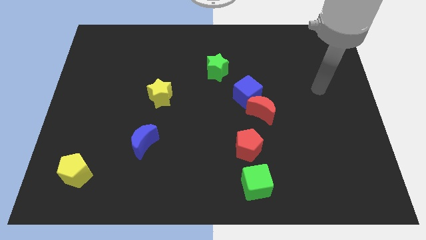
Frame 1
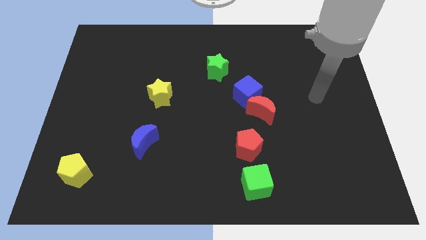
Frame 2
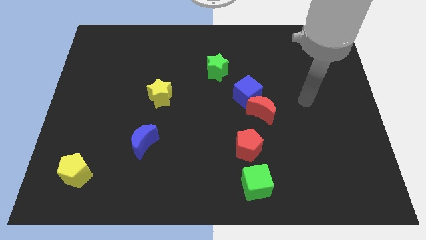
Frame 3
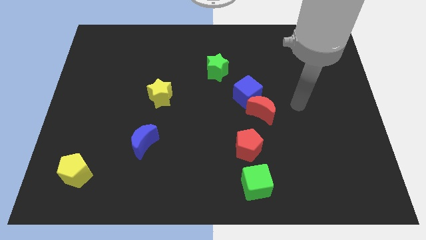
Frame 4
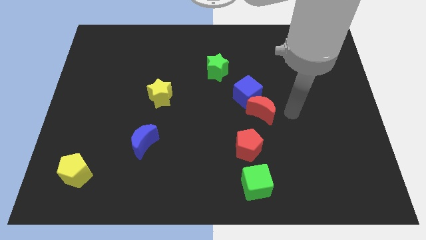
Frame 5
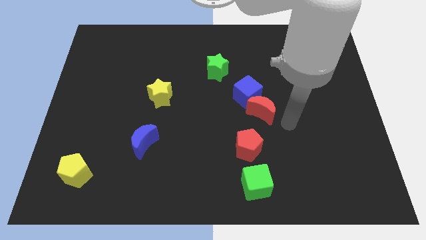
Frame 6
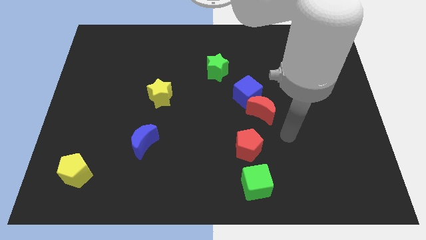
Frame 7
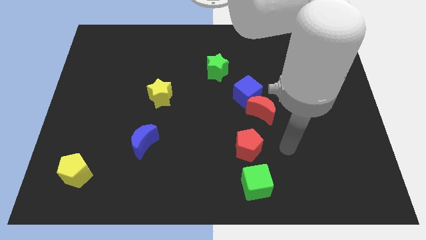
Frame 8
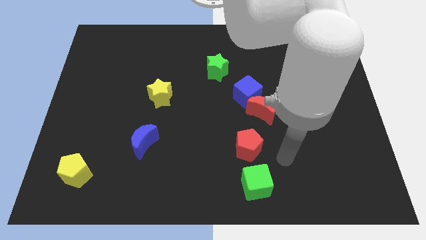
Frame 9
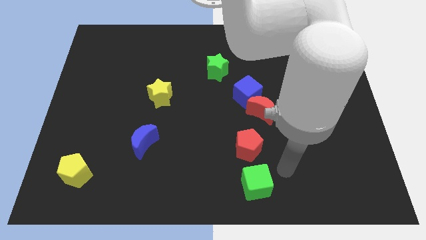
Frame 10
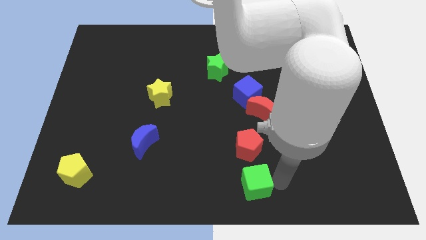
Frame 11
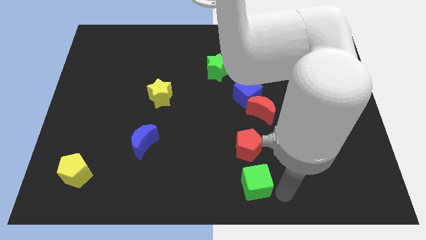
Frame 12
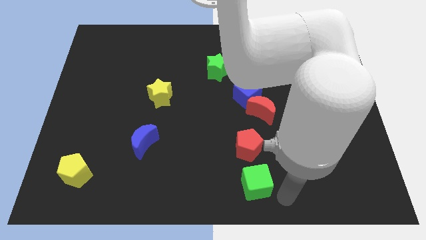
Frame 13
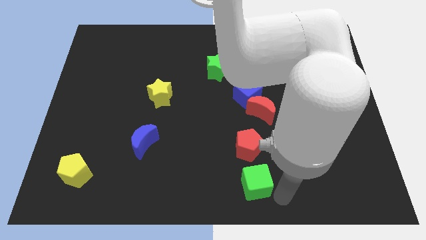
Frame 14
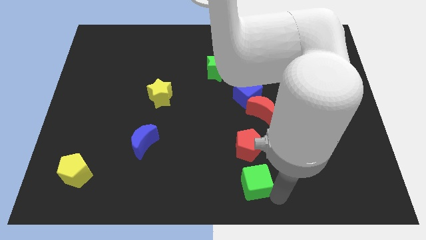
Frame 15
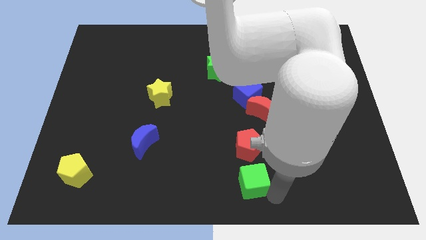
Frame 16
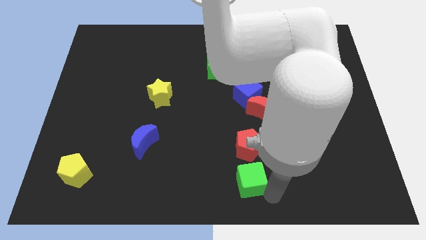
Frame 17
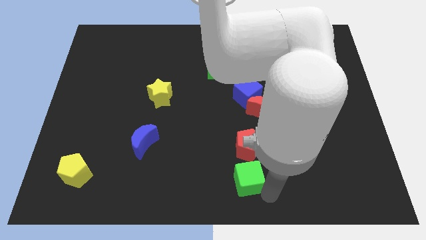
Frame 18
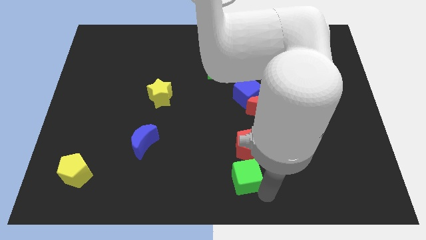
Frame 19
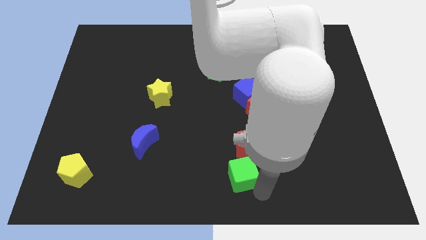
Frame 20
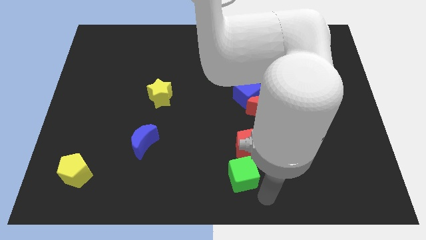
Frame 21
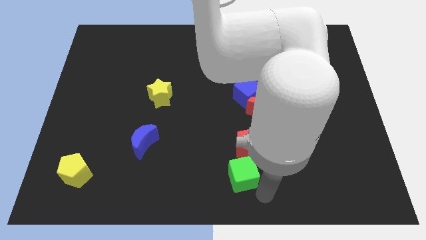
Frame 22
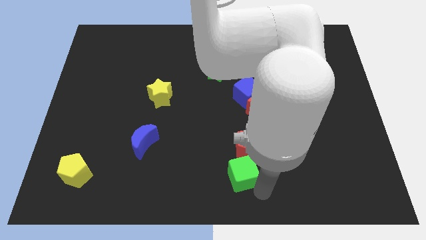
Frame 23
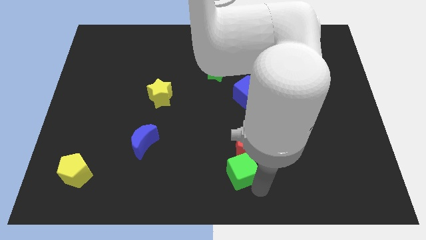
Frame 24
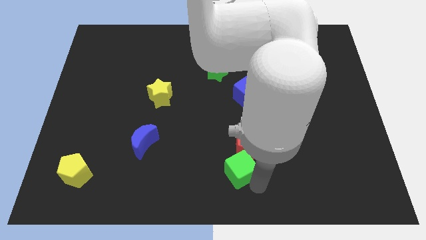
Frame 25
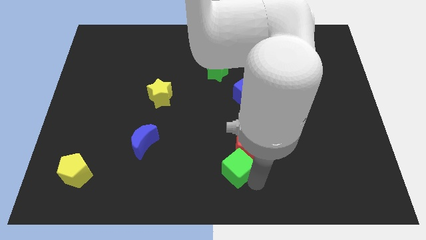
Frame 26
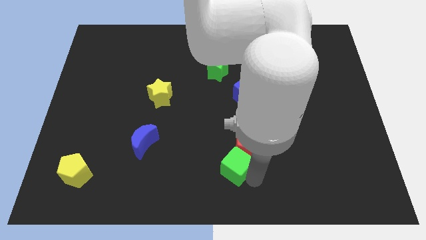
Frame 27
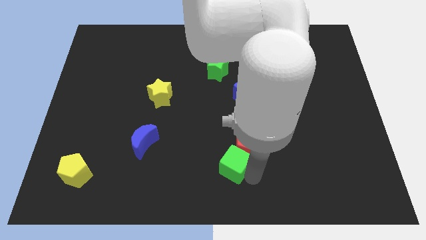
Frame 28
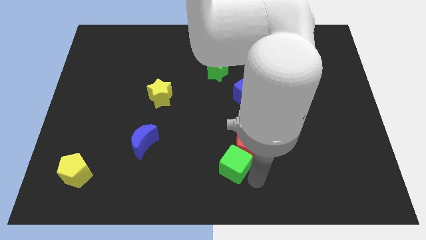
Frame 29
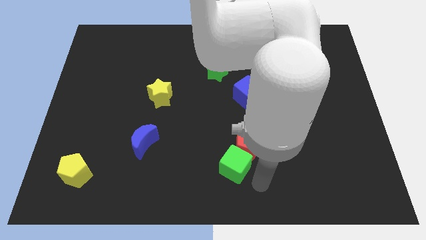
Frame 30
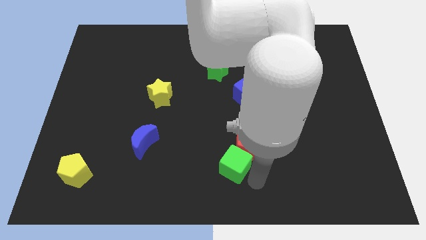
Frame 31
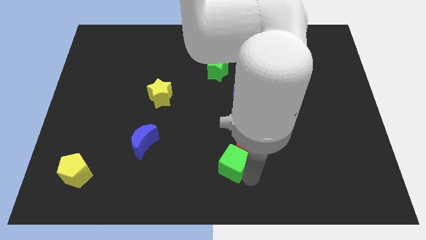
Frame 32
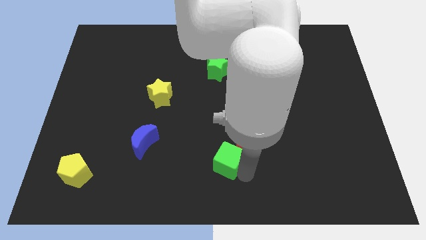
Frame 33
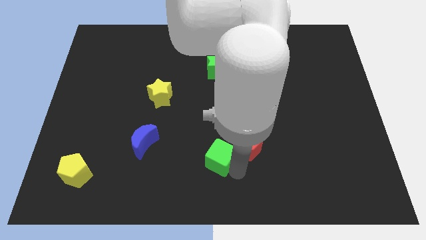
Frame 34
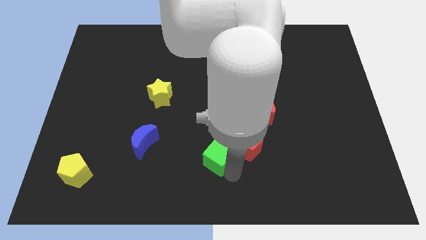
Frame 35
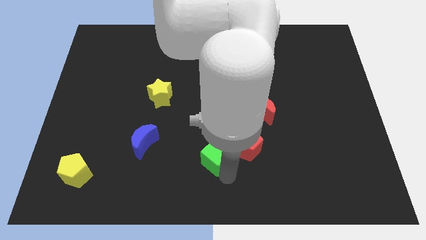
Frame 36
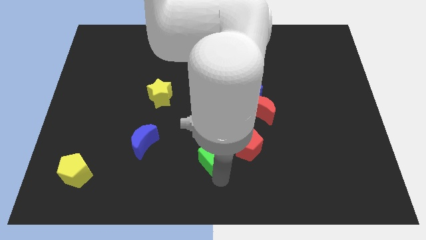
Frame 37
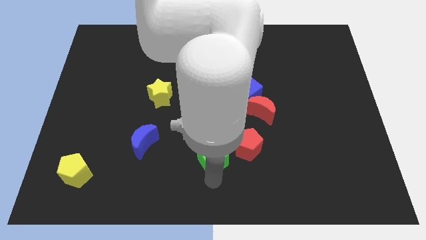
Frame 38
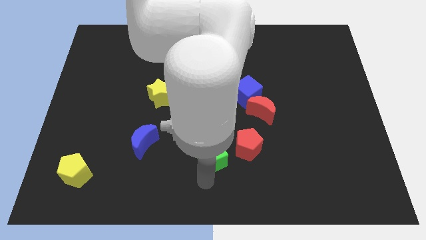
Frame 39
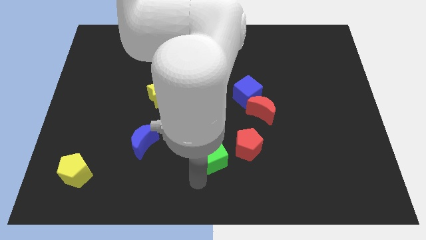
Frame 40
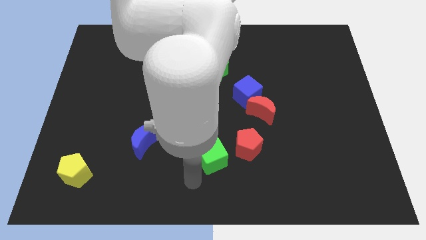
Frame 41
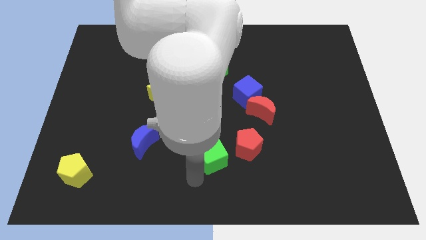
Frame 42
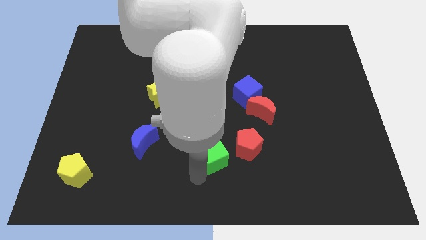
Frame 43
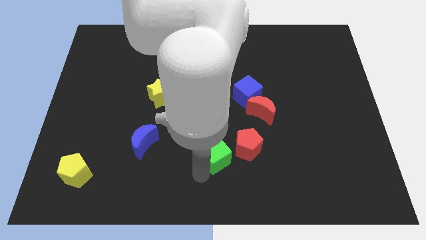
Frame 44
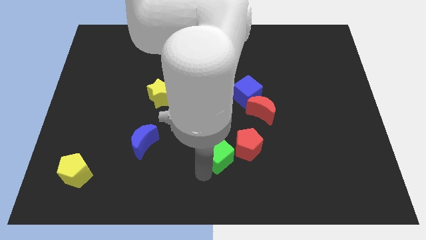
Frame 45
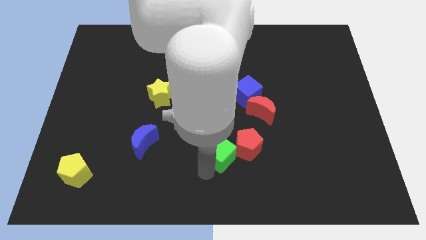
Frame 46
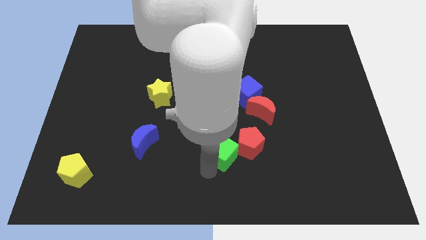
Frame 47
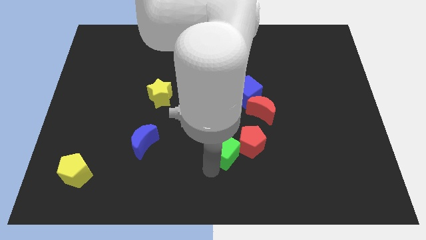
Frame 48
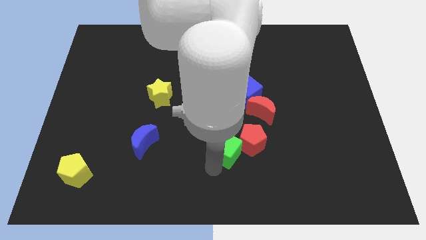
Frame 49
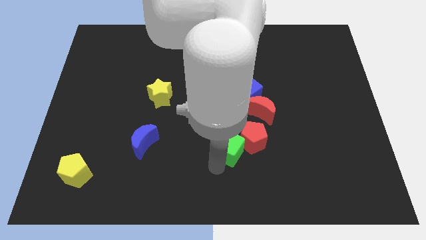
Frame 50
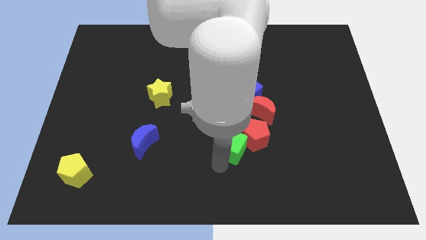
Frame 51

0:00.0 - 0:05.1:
put the green cube to the bottom left of the red moon

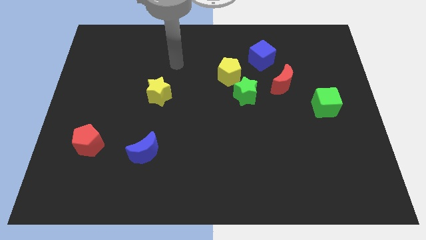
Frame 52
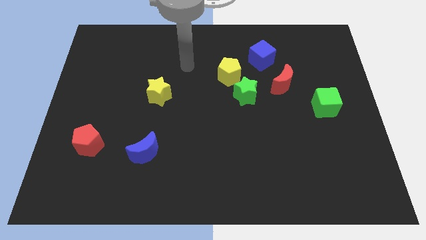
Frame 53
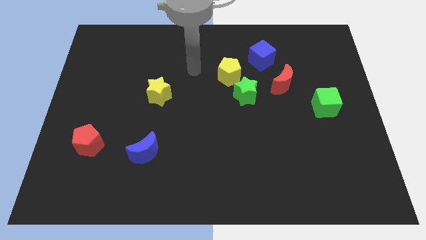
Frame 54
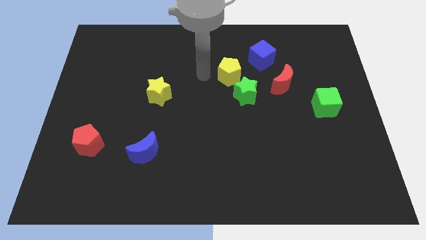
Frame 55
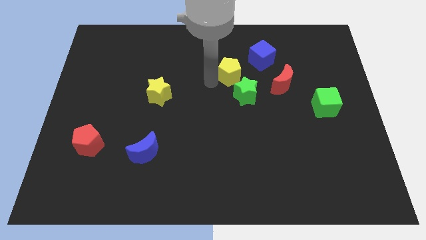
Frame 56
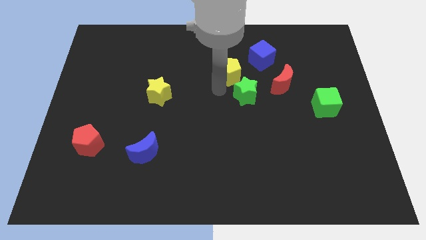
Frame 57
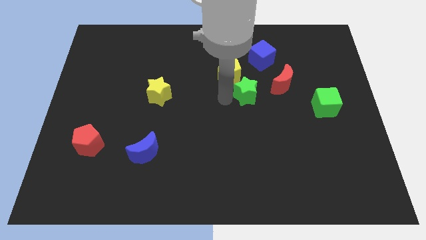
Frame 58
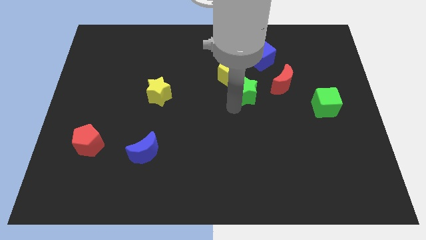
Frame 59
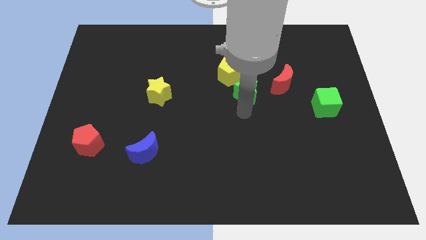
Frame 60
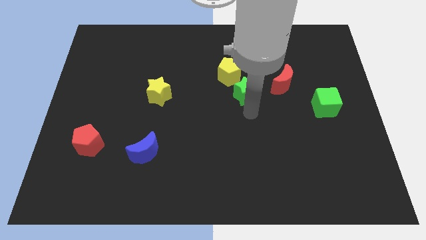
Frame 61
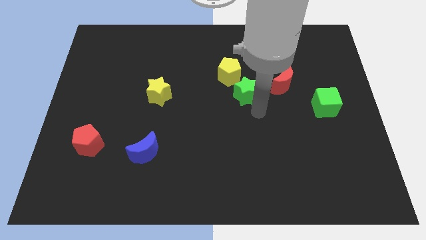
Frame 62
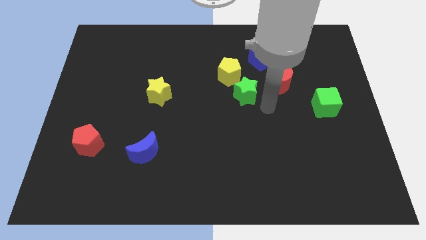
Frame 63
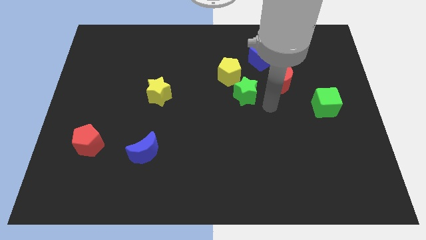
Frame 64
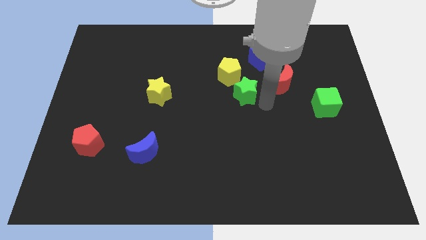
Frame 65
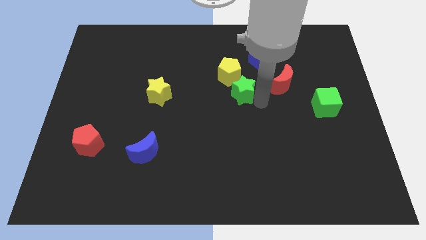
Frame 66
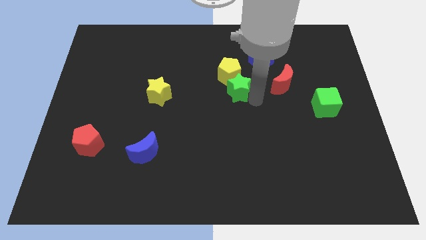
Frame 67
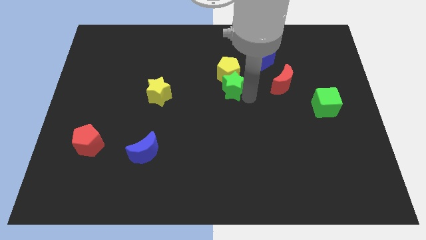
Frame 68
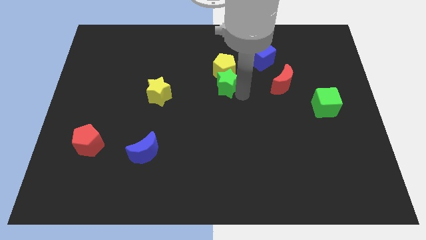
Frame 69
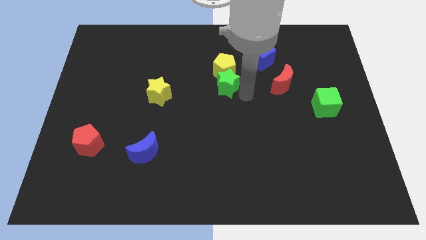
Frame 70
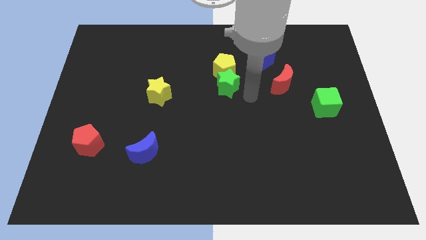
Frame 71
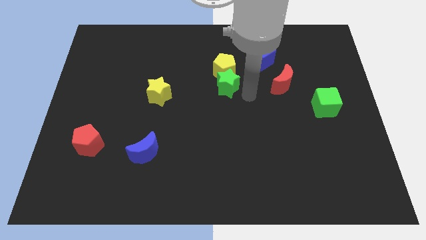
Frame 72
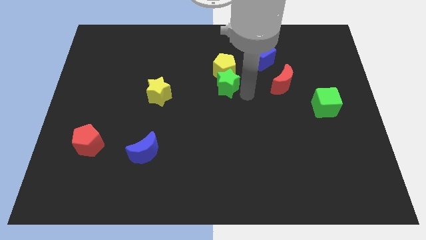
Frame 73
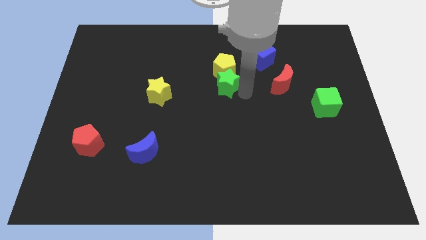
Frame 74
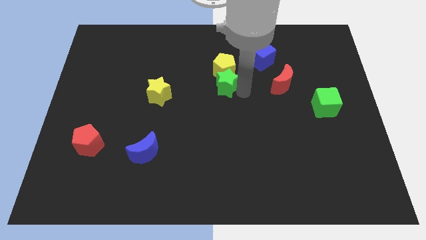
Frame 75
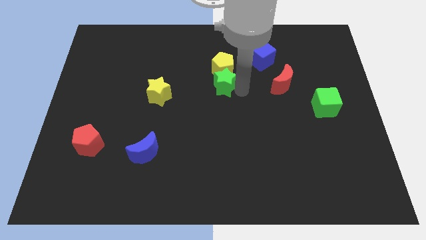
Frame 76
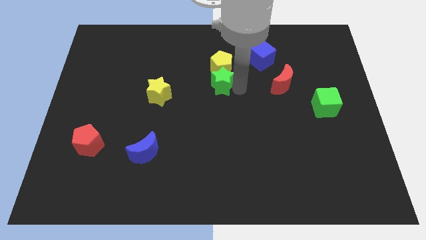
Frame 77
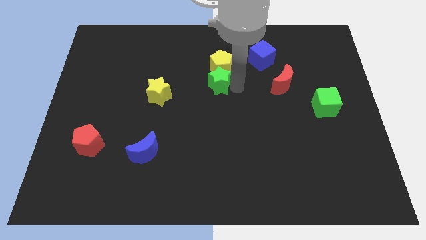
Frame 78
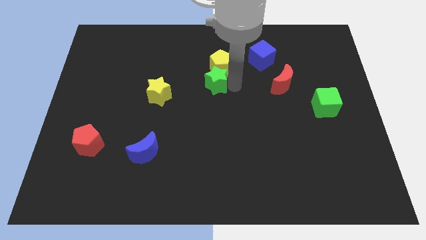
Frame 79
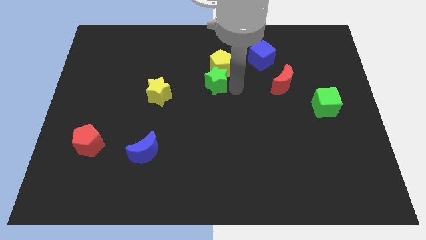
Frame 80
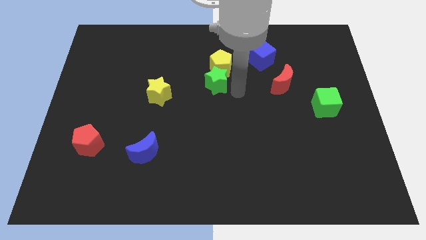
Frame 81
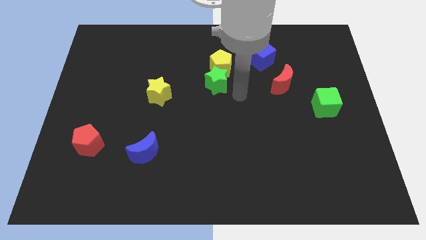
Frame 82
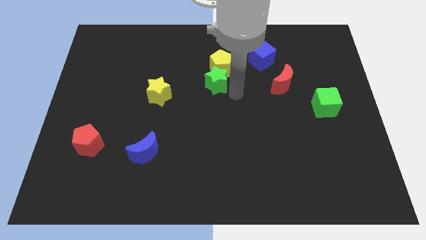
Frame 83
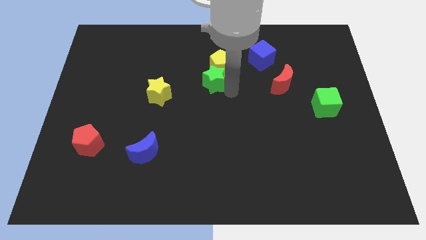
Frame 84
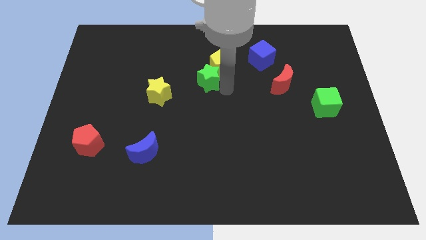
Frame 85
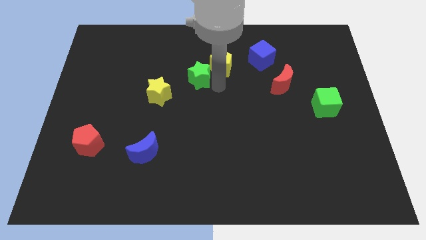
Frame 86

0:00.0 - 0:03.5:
put the green star left of the yellow pentagon
